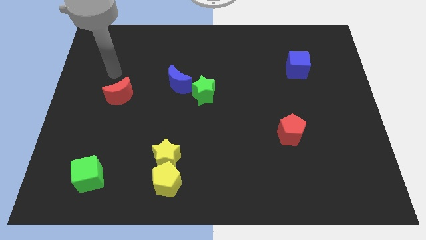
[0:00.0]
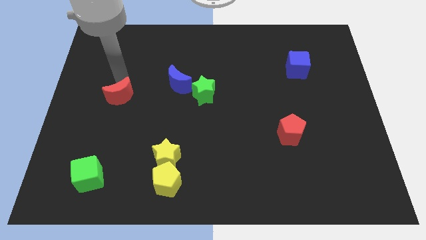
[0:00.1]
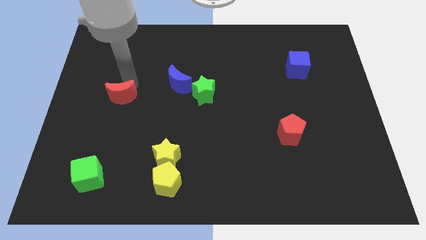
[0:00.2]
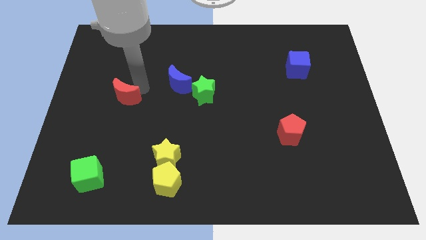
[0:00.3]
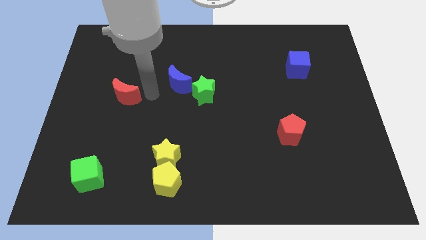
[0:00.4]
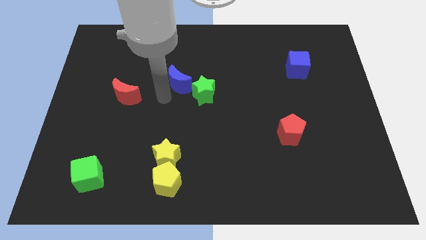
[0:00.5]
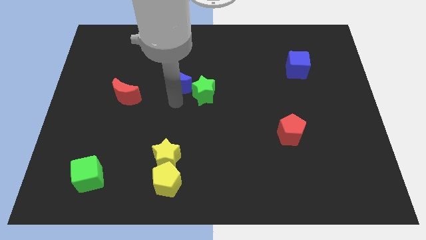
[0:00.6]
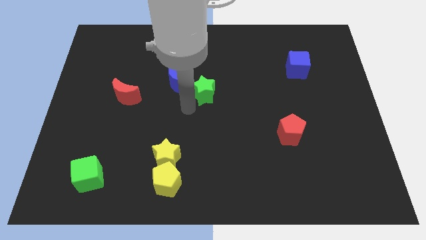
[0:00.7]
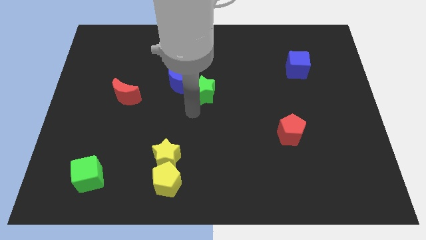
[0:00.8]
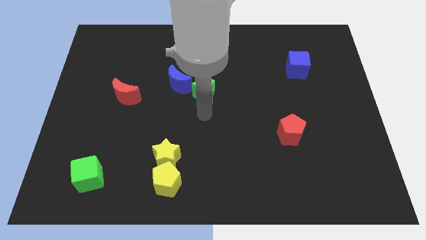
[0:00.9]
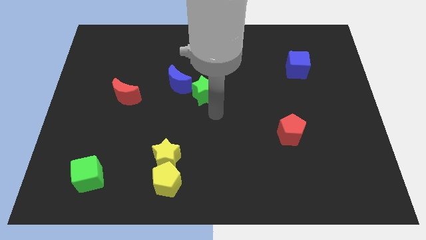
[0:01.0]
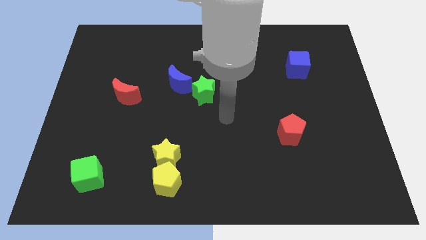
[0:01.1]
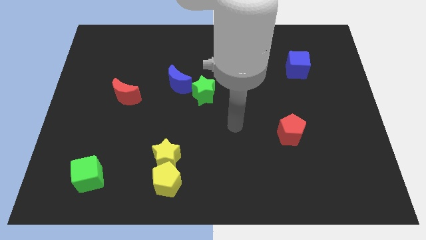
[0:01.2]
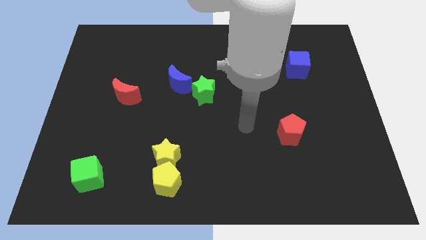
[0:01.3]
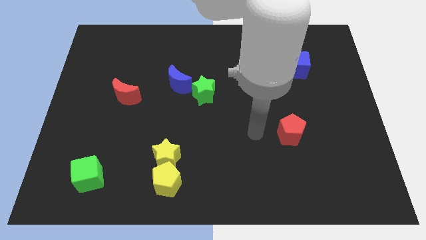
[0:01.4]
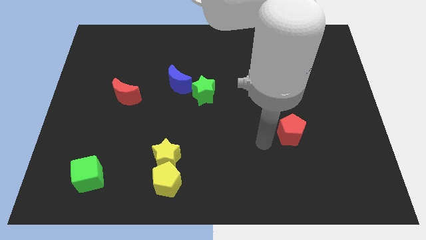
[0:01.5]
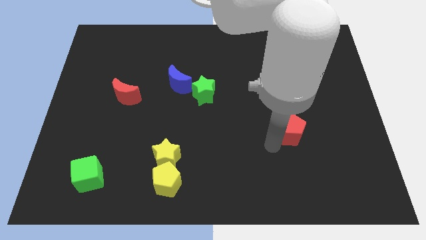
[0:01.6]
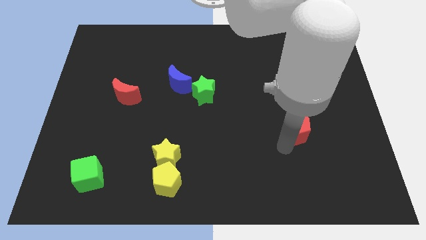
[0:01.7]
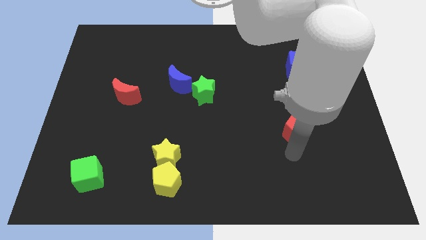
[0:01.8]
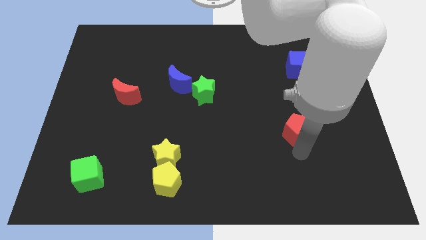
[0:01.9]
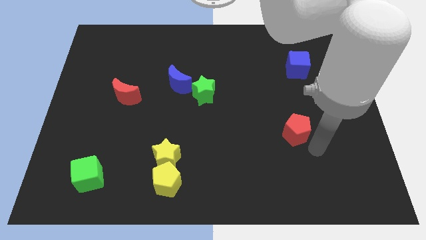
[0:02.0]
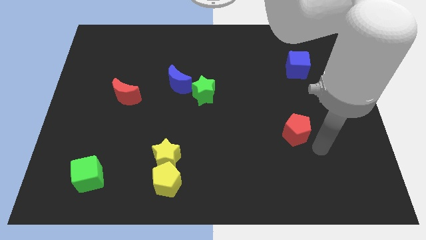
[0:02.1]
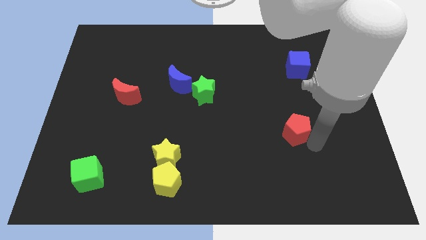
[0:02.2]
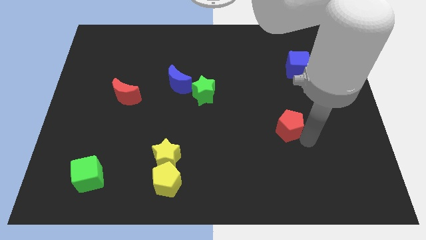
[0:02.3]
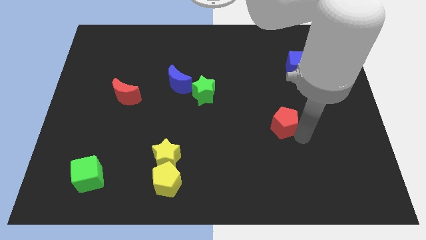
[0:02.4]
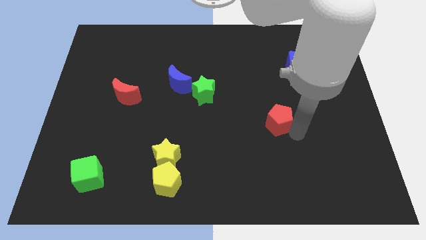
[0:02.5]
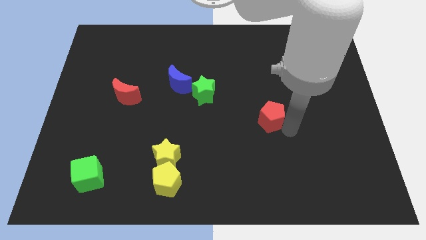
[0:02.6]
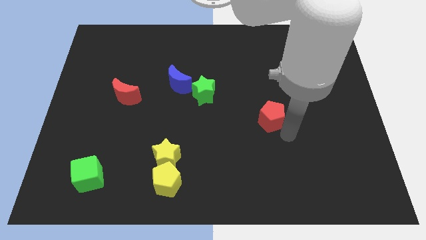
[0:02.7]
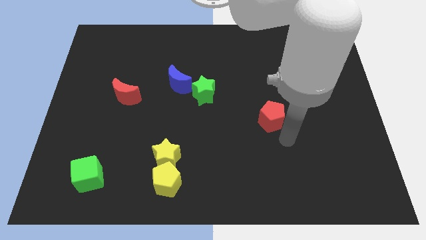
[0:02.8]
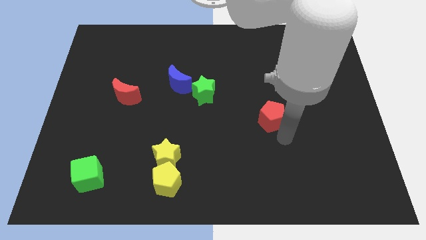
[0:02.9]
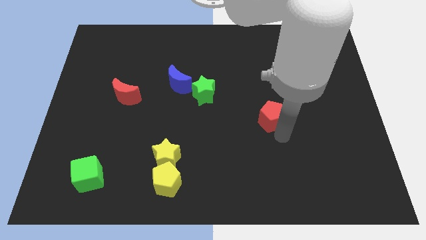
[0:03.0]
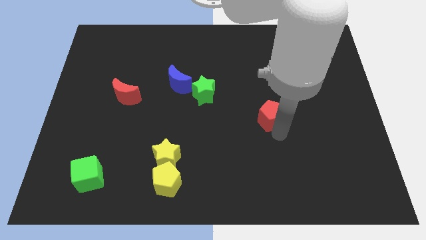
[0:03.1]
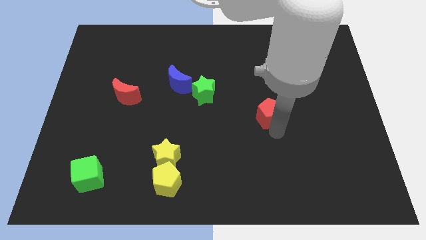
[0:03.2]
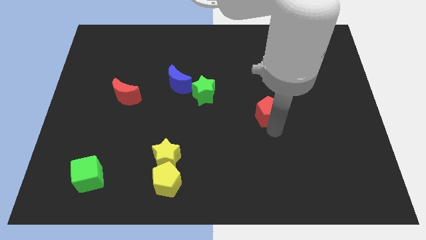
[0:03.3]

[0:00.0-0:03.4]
push the red pentagon a bit up and left

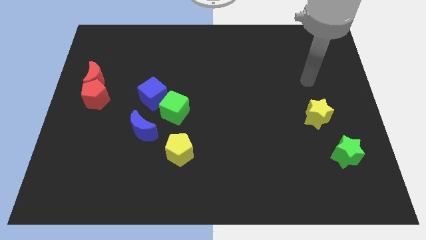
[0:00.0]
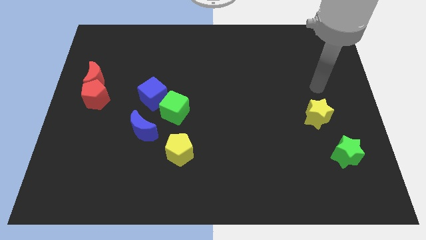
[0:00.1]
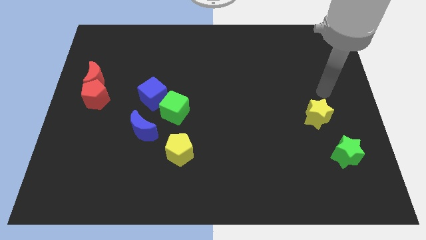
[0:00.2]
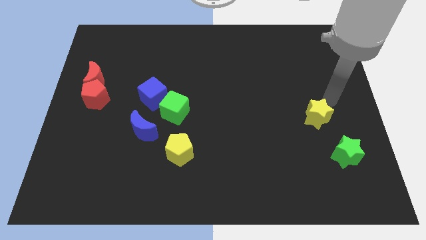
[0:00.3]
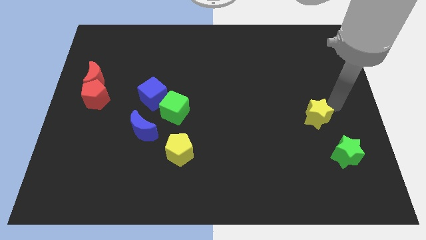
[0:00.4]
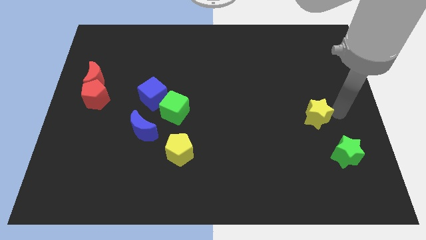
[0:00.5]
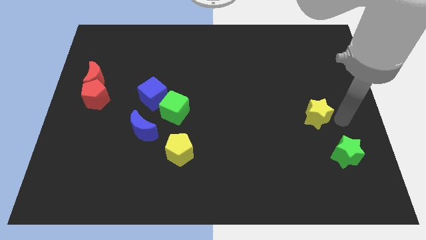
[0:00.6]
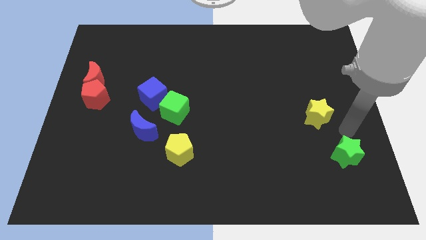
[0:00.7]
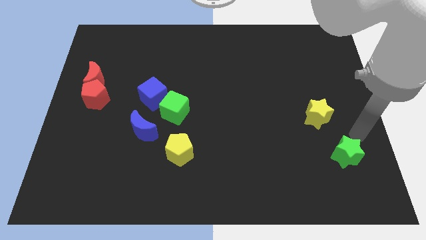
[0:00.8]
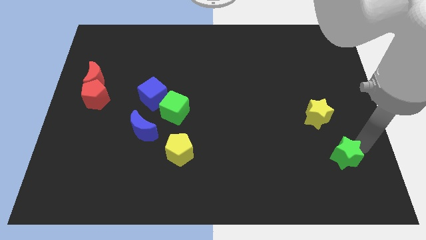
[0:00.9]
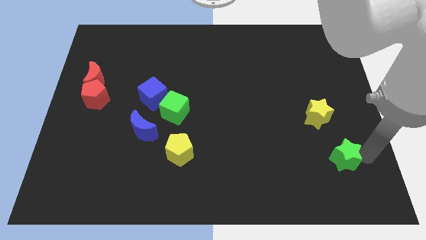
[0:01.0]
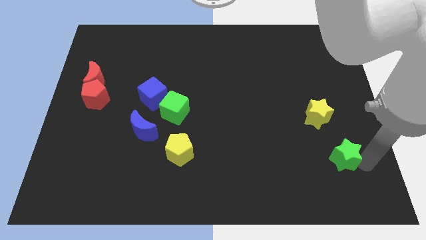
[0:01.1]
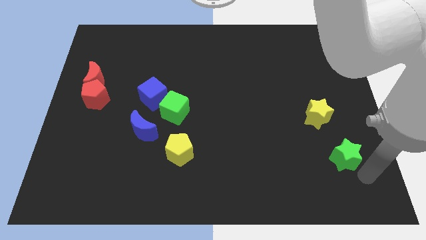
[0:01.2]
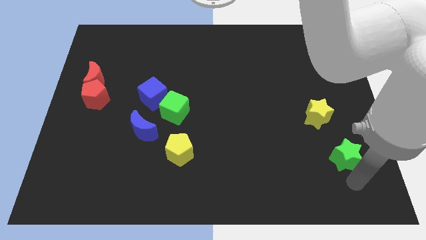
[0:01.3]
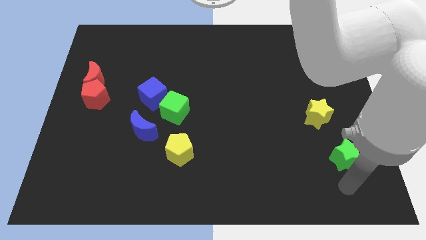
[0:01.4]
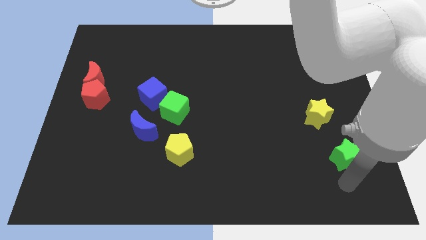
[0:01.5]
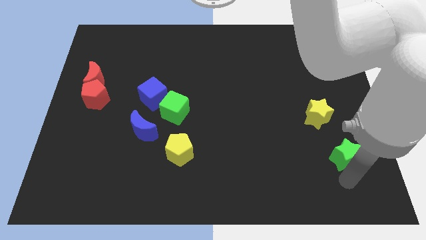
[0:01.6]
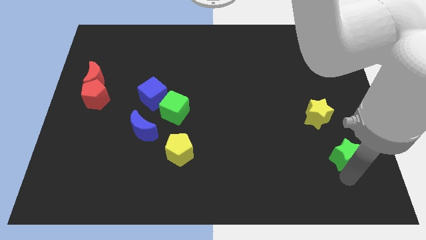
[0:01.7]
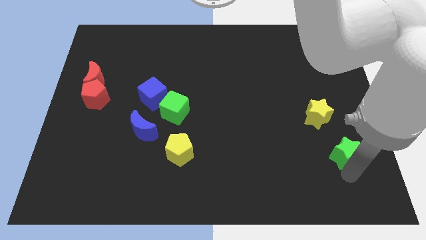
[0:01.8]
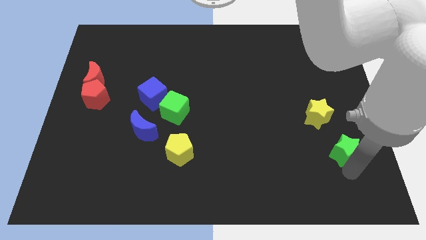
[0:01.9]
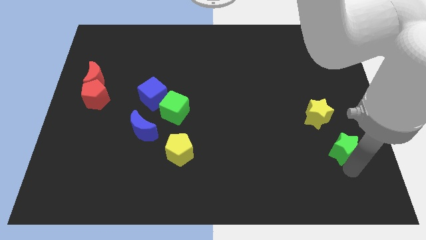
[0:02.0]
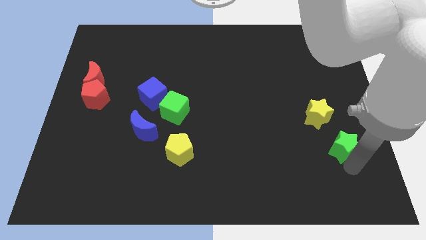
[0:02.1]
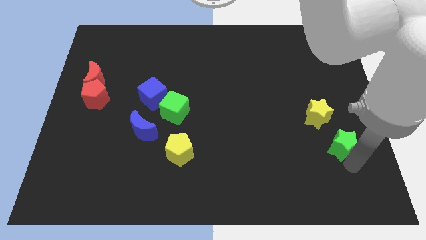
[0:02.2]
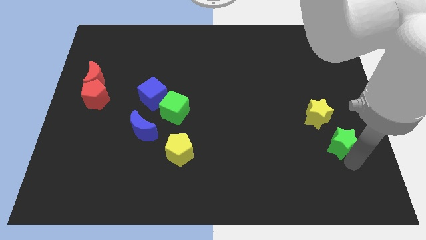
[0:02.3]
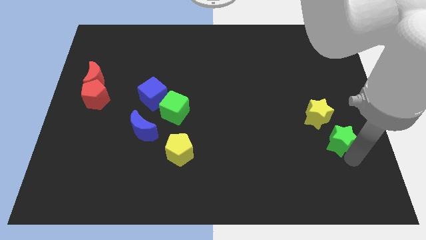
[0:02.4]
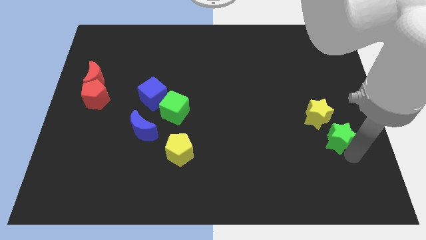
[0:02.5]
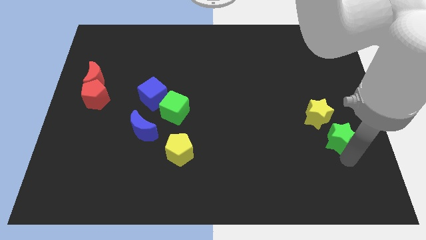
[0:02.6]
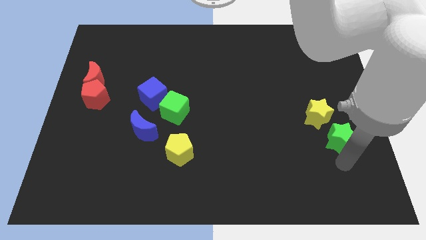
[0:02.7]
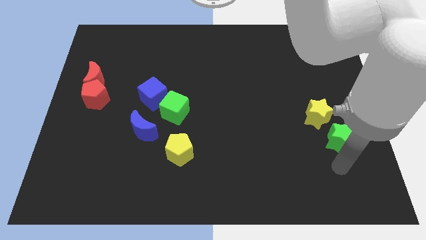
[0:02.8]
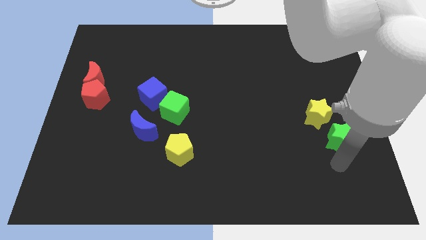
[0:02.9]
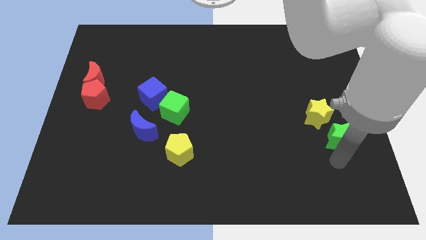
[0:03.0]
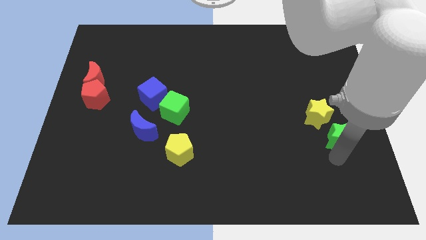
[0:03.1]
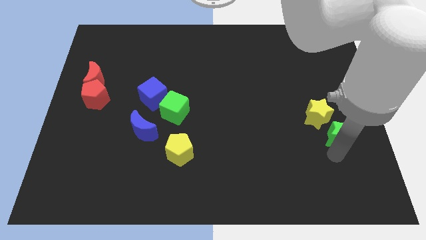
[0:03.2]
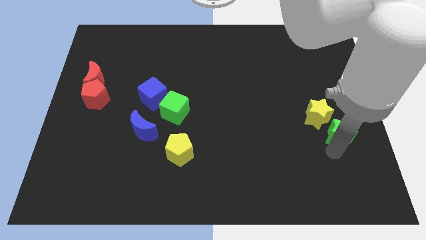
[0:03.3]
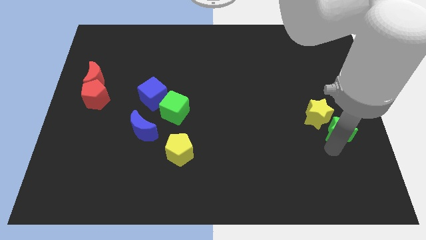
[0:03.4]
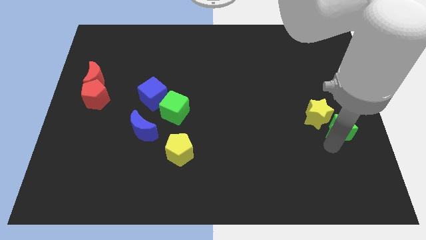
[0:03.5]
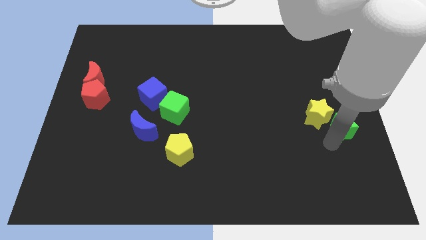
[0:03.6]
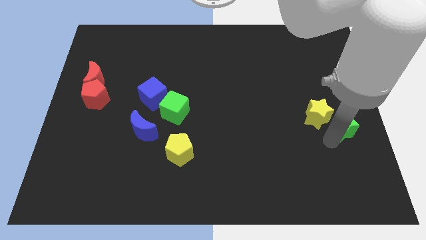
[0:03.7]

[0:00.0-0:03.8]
slightly move the green star upwards

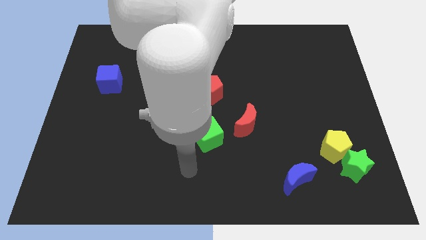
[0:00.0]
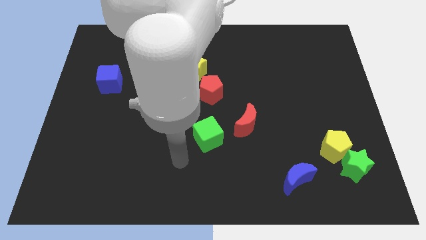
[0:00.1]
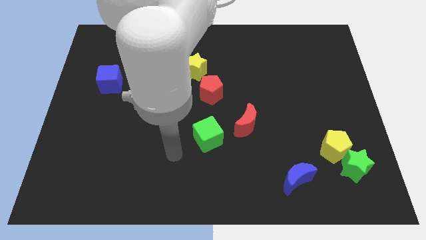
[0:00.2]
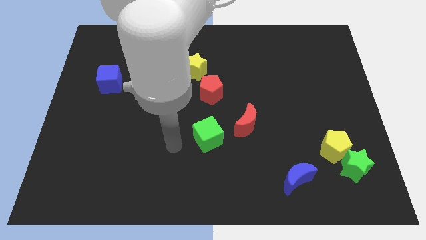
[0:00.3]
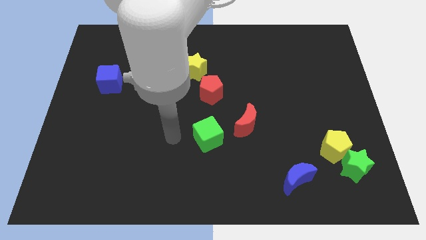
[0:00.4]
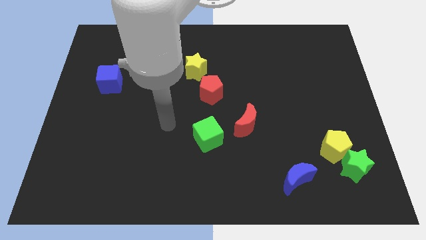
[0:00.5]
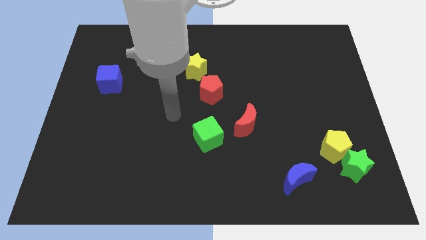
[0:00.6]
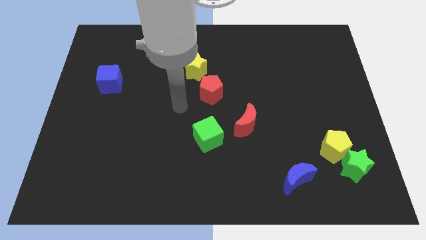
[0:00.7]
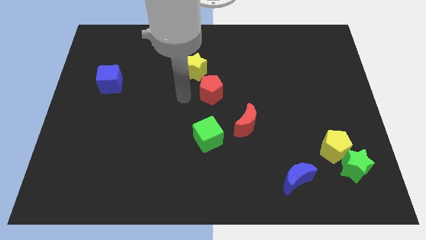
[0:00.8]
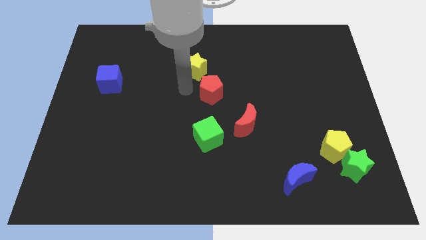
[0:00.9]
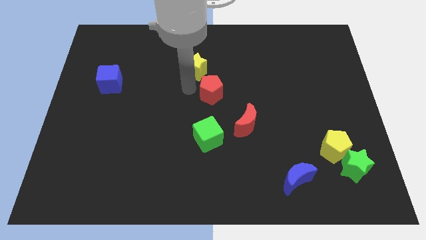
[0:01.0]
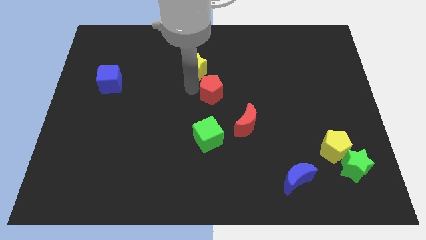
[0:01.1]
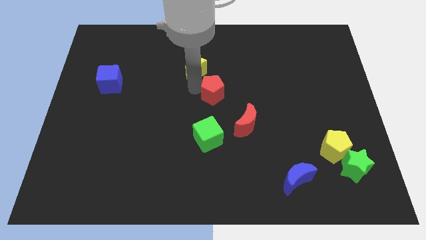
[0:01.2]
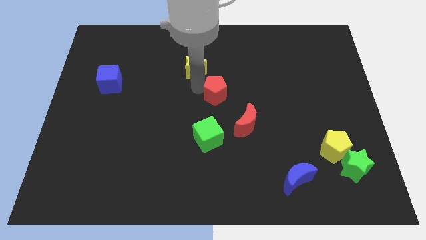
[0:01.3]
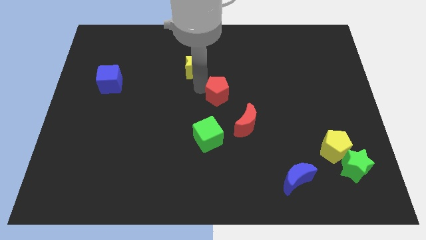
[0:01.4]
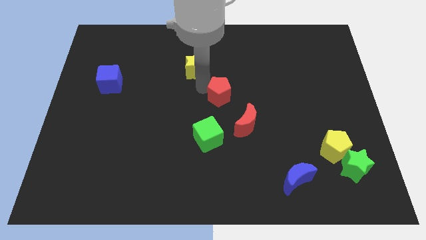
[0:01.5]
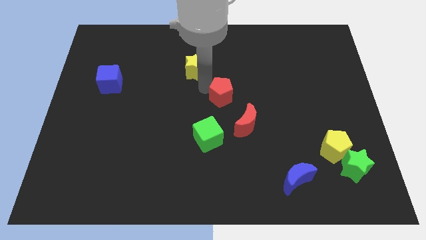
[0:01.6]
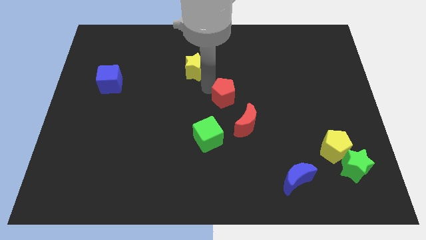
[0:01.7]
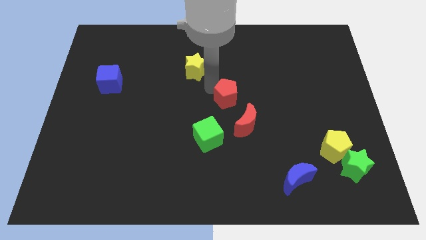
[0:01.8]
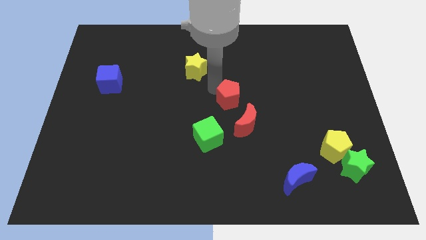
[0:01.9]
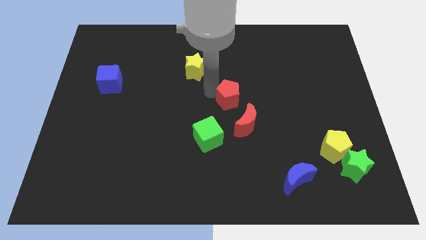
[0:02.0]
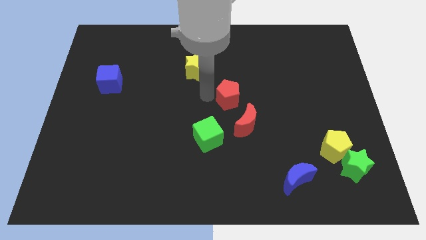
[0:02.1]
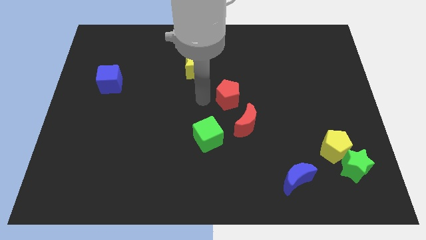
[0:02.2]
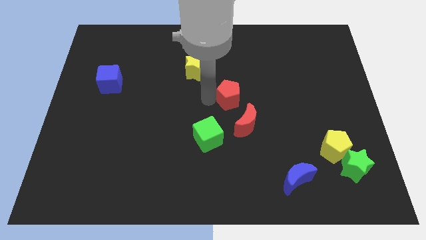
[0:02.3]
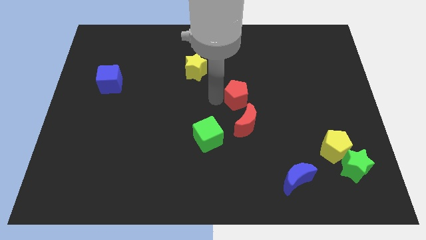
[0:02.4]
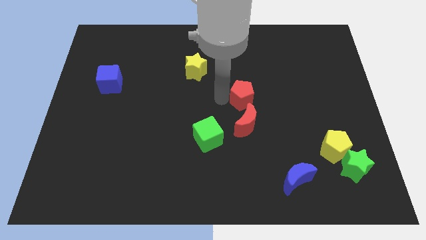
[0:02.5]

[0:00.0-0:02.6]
push the red pentagon a little bit right
